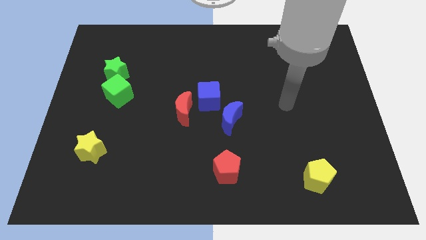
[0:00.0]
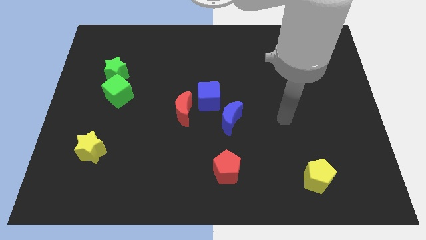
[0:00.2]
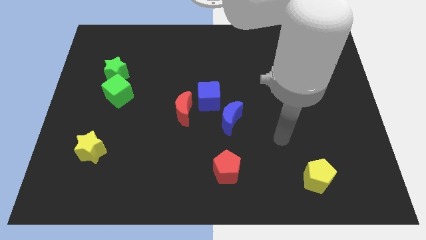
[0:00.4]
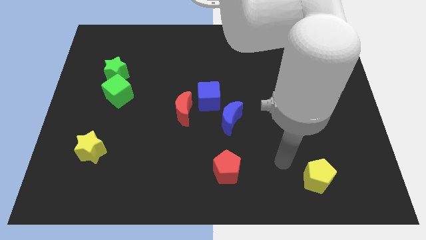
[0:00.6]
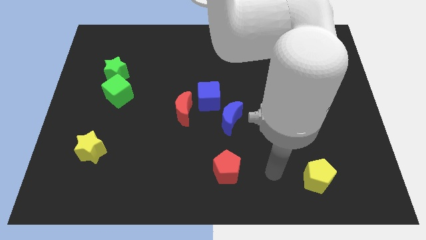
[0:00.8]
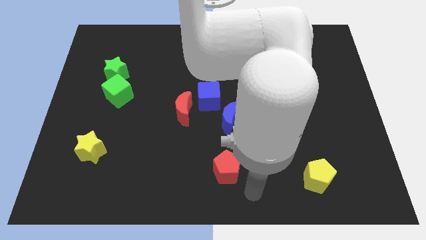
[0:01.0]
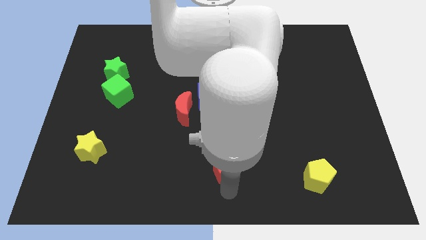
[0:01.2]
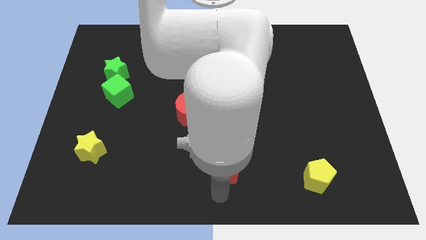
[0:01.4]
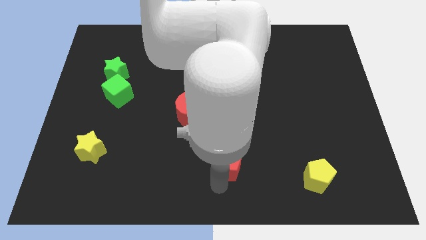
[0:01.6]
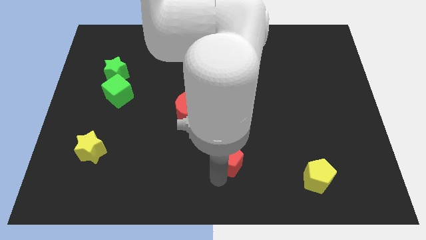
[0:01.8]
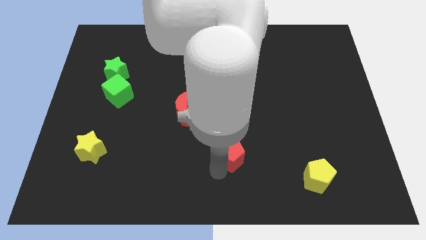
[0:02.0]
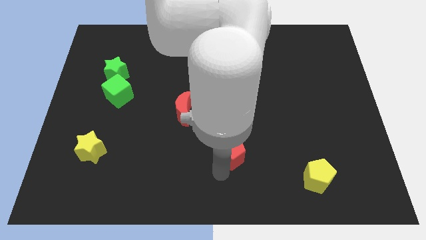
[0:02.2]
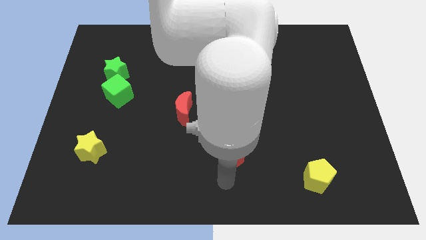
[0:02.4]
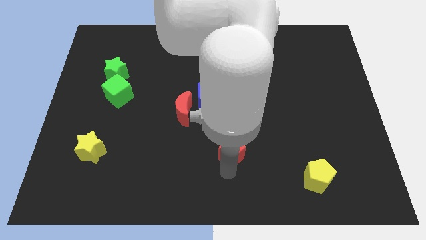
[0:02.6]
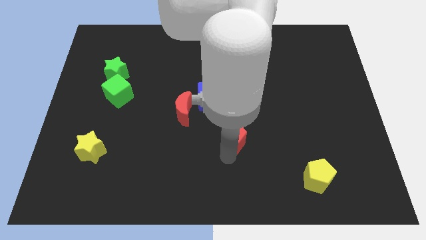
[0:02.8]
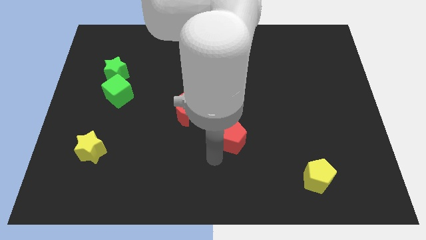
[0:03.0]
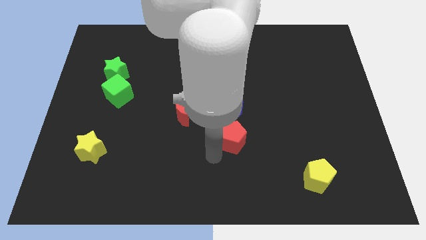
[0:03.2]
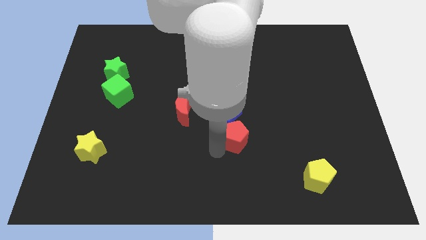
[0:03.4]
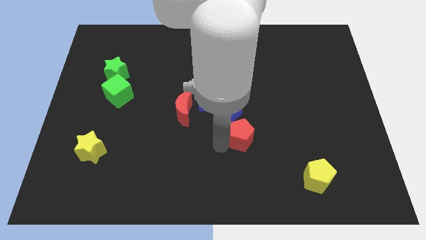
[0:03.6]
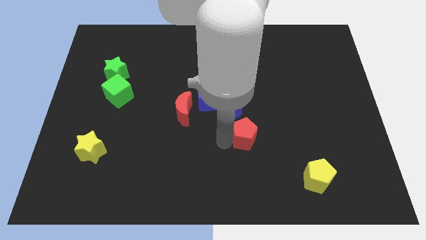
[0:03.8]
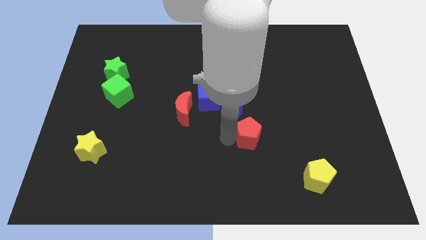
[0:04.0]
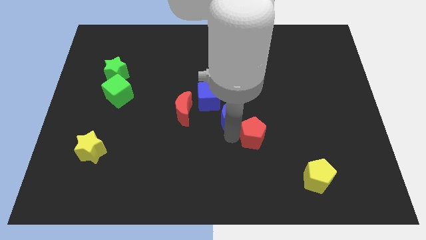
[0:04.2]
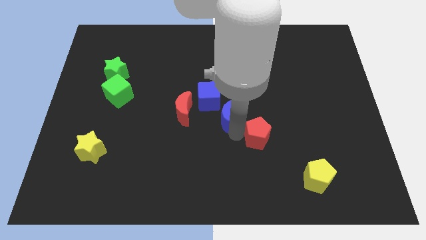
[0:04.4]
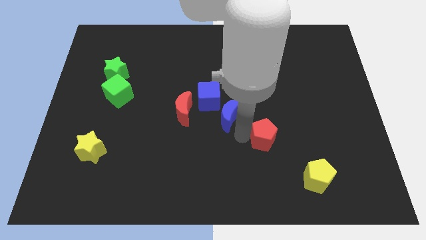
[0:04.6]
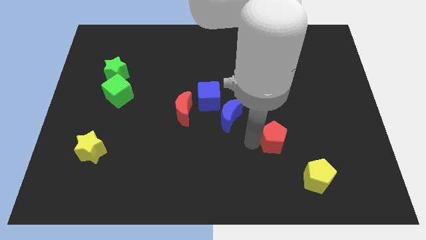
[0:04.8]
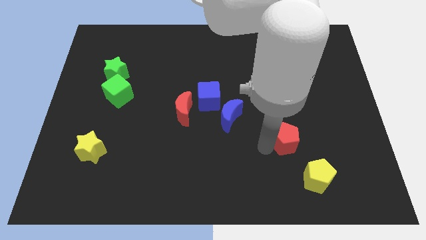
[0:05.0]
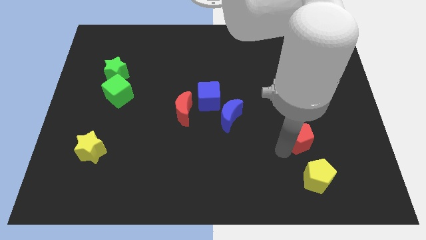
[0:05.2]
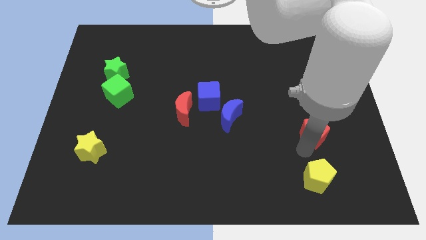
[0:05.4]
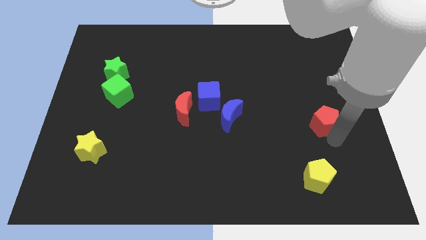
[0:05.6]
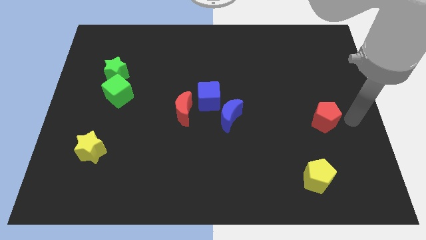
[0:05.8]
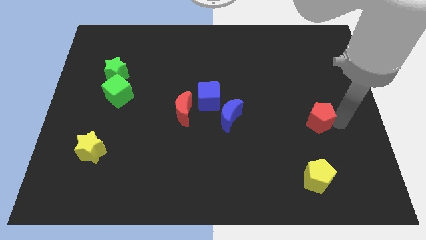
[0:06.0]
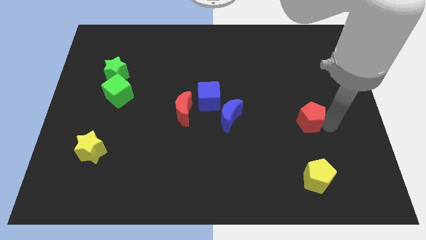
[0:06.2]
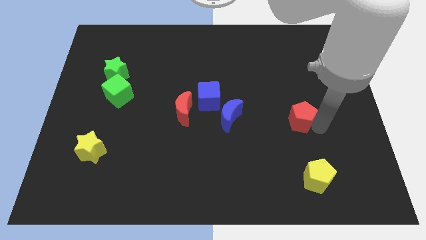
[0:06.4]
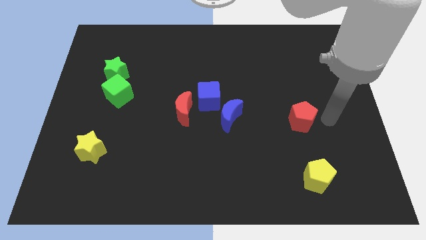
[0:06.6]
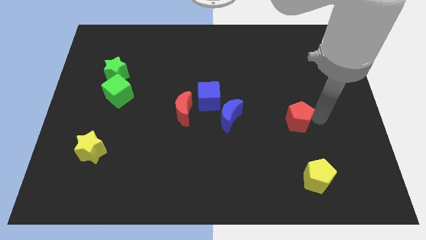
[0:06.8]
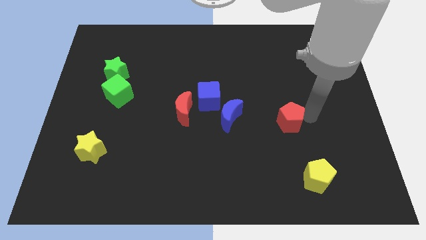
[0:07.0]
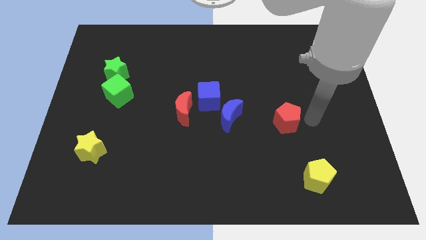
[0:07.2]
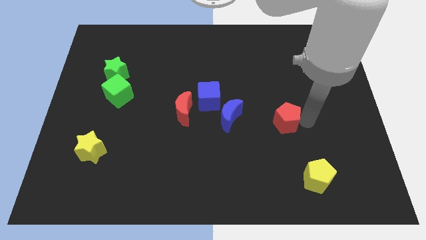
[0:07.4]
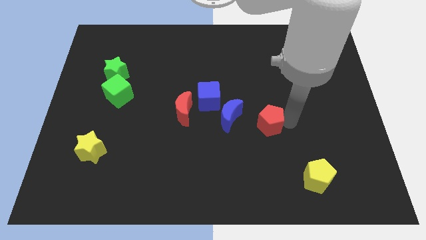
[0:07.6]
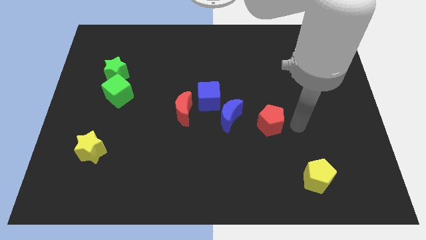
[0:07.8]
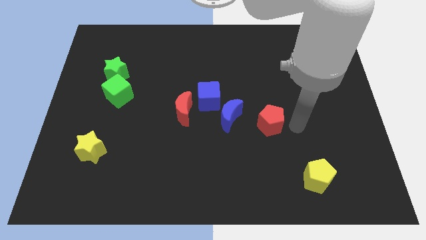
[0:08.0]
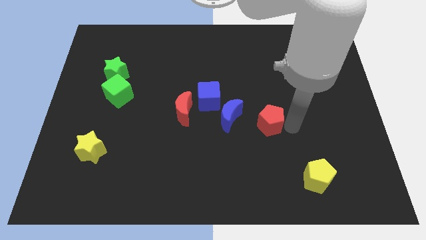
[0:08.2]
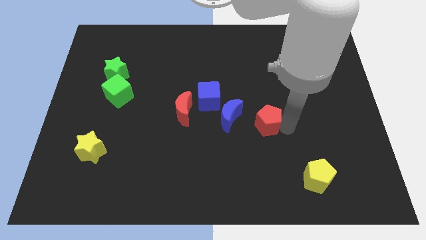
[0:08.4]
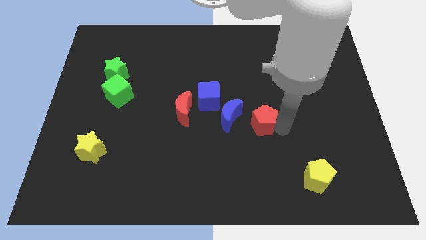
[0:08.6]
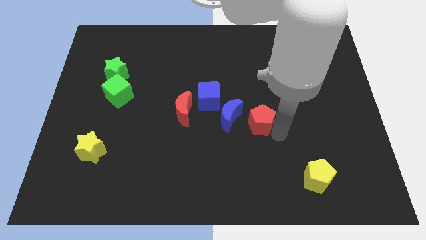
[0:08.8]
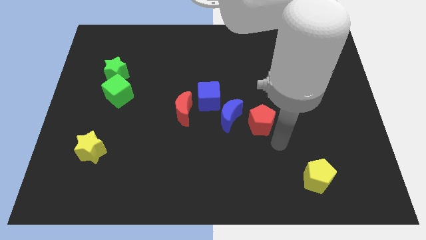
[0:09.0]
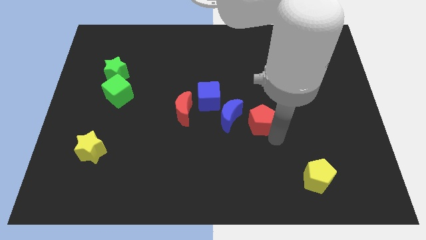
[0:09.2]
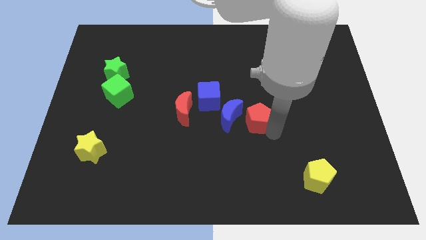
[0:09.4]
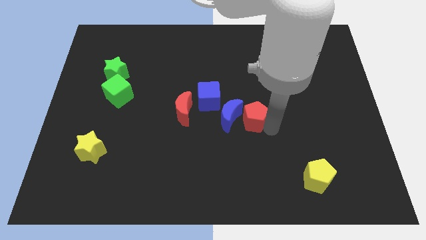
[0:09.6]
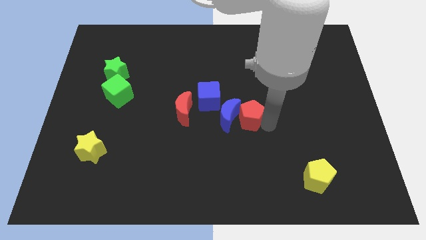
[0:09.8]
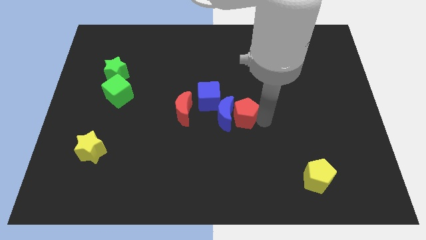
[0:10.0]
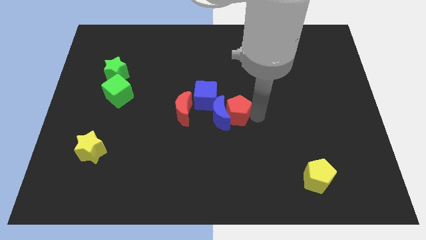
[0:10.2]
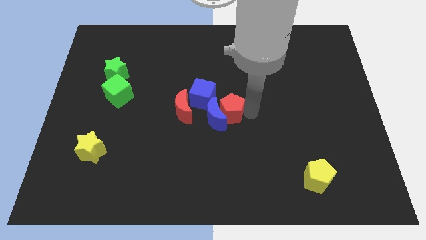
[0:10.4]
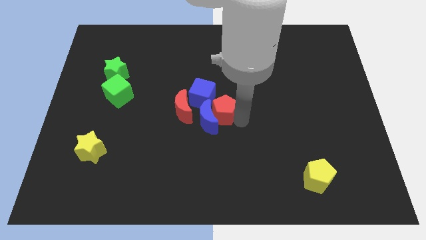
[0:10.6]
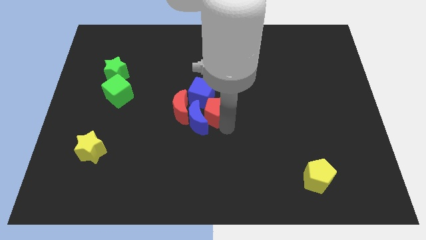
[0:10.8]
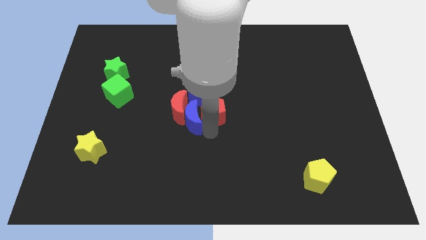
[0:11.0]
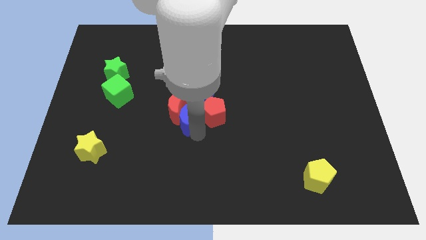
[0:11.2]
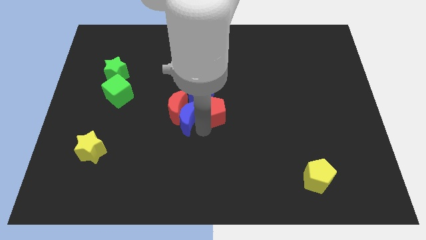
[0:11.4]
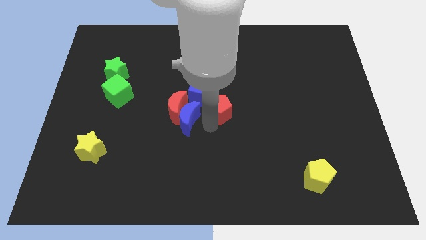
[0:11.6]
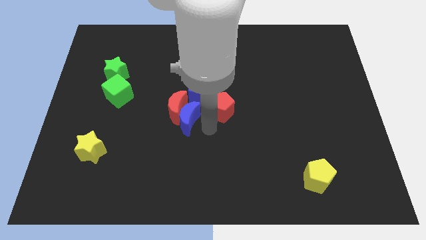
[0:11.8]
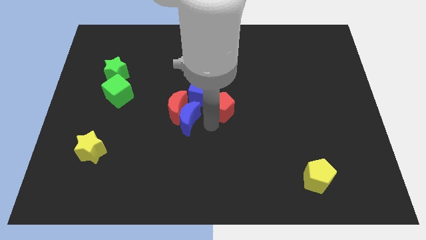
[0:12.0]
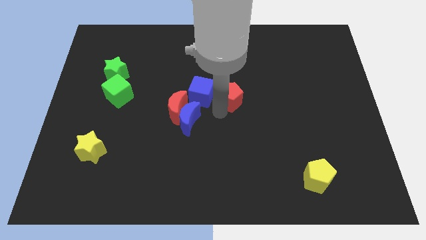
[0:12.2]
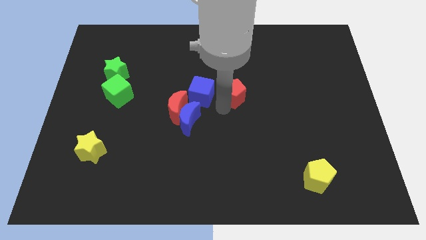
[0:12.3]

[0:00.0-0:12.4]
push the red pentagon up

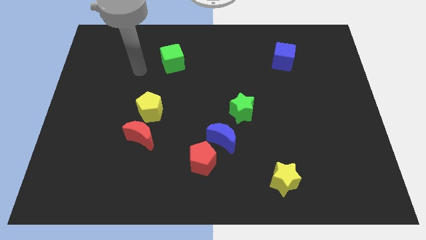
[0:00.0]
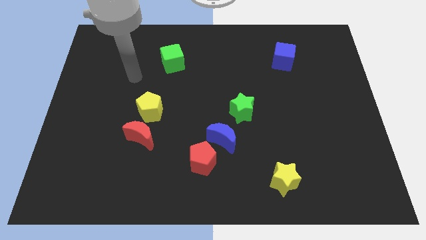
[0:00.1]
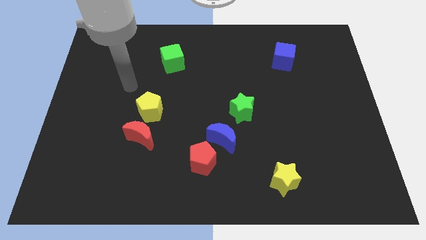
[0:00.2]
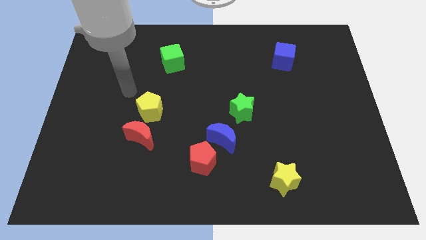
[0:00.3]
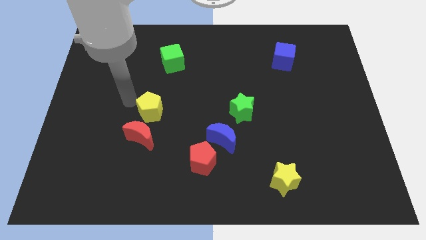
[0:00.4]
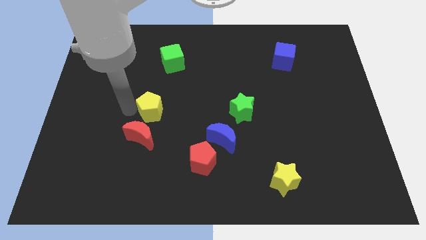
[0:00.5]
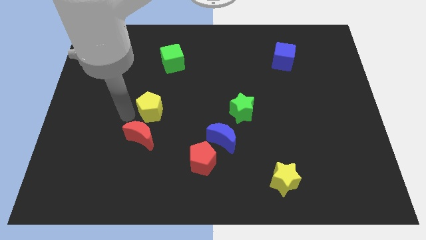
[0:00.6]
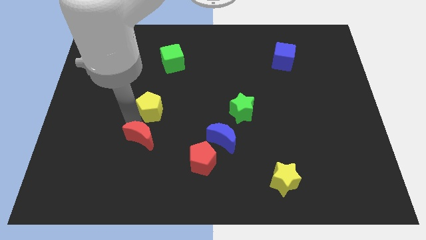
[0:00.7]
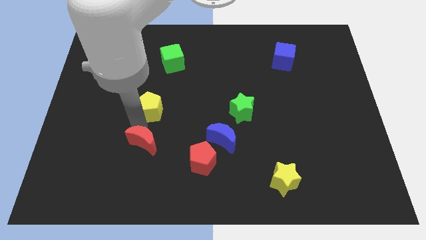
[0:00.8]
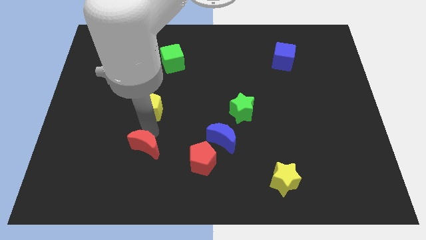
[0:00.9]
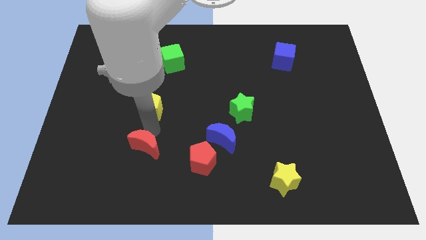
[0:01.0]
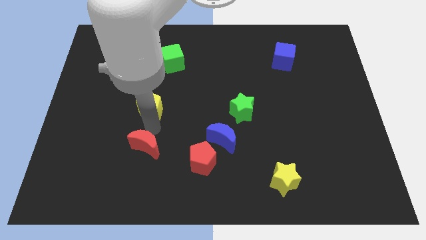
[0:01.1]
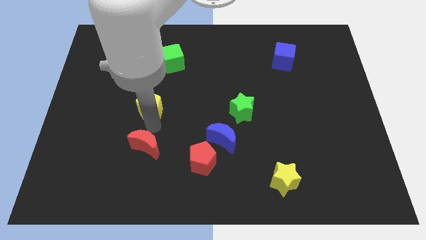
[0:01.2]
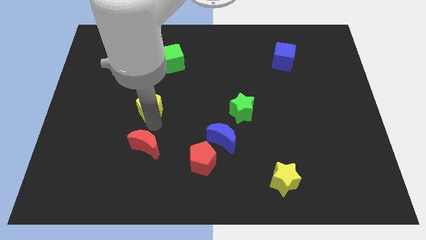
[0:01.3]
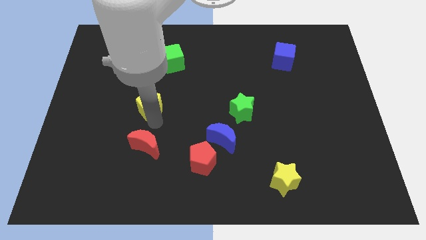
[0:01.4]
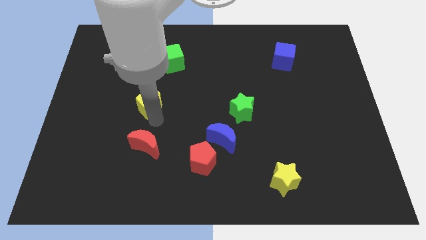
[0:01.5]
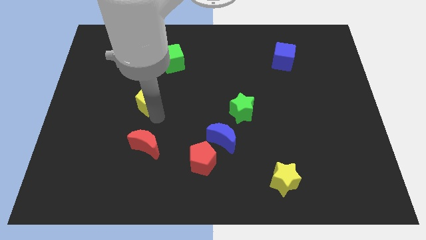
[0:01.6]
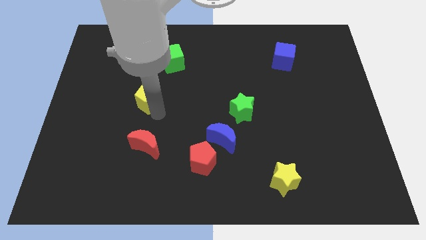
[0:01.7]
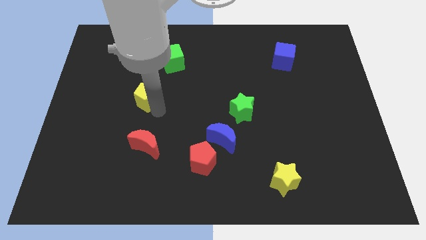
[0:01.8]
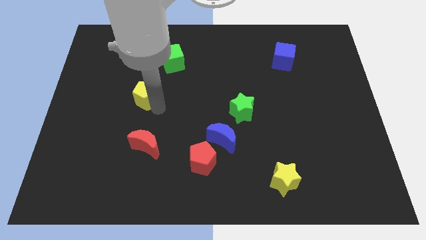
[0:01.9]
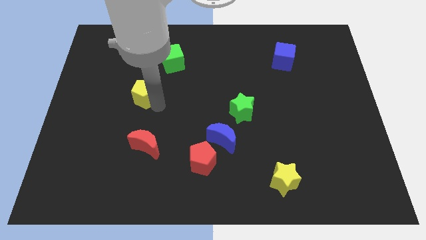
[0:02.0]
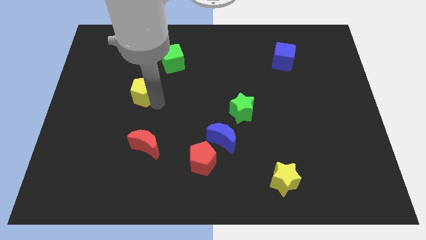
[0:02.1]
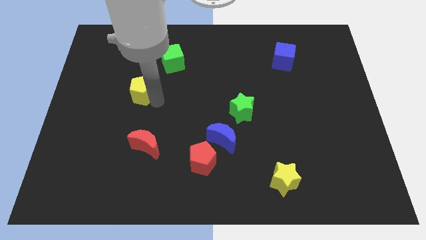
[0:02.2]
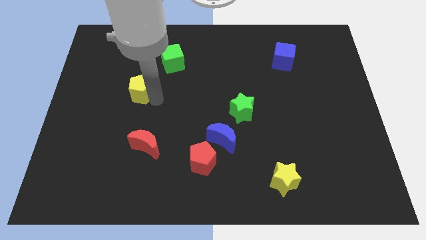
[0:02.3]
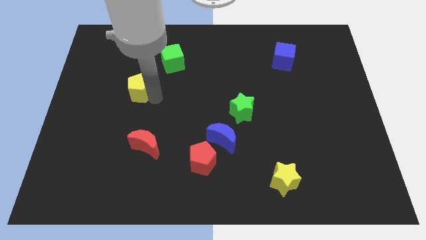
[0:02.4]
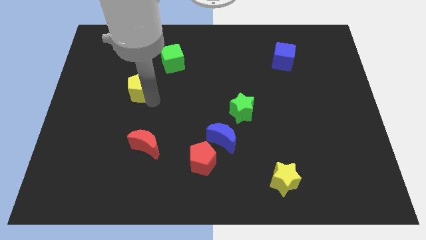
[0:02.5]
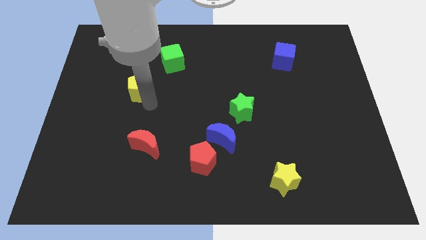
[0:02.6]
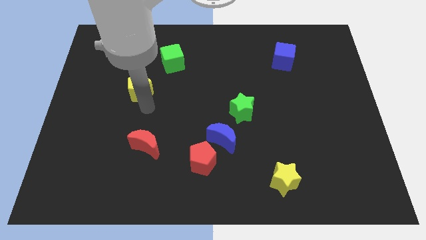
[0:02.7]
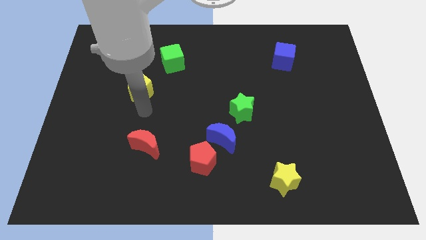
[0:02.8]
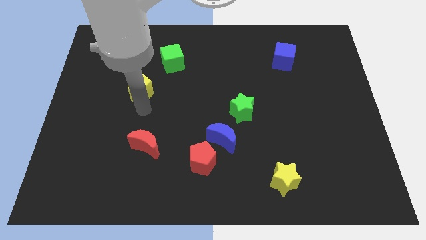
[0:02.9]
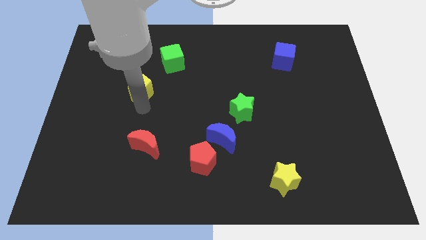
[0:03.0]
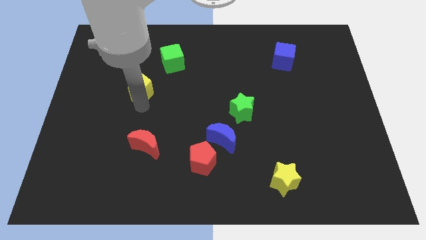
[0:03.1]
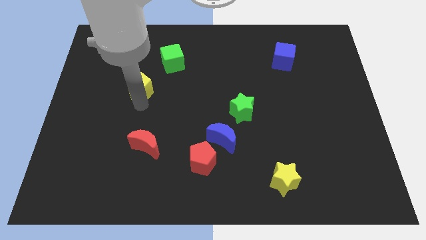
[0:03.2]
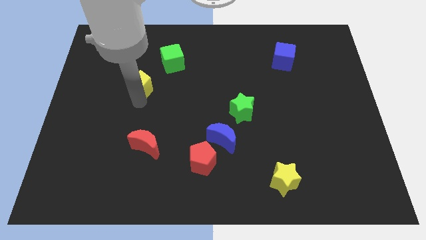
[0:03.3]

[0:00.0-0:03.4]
push the yellow pentagon a bit diagonally upwards and to the left
